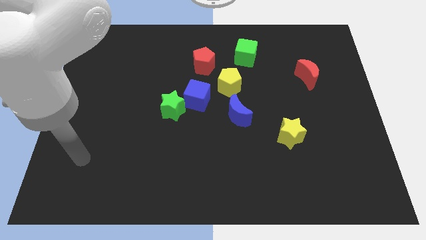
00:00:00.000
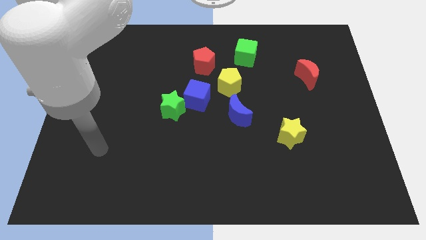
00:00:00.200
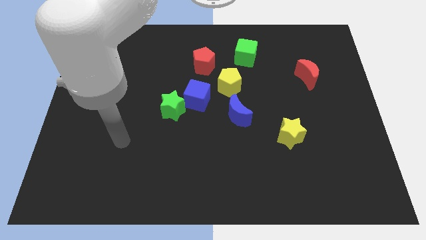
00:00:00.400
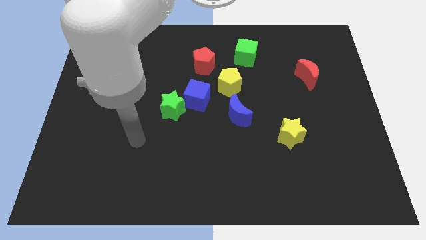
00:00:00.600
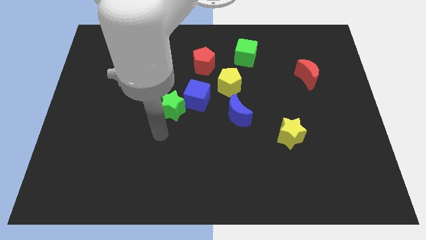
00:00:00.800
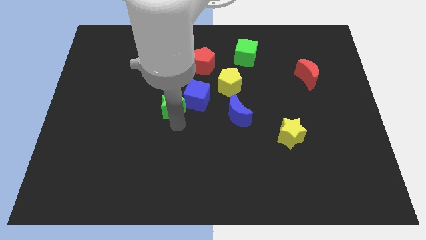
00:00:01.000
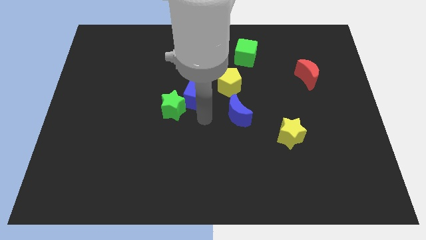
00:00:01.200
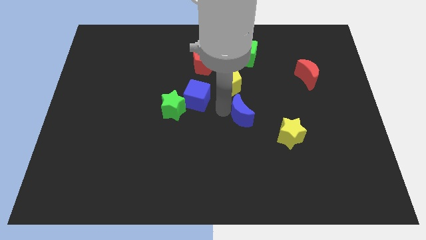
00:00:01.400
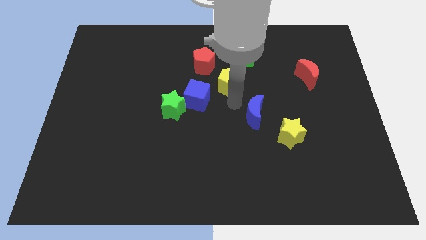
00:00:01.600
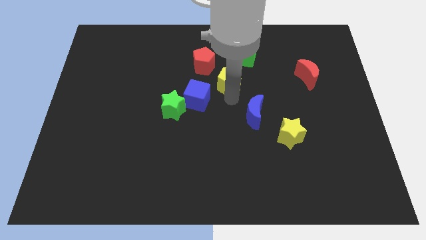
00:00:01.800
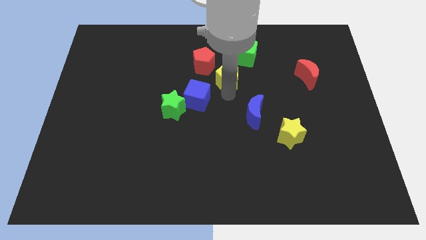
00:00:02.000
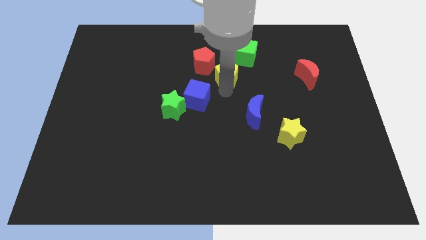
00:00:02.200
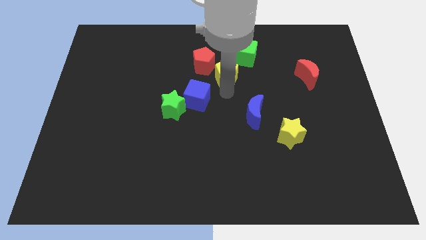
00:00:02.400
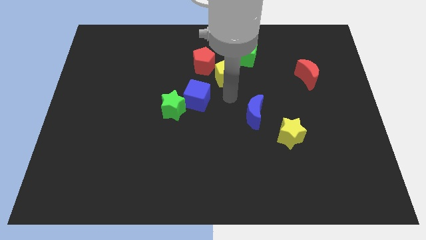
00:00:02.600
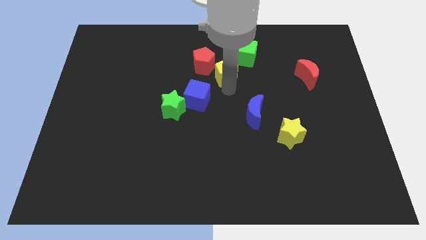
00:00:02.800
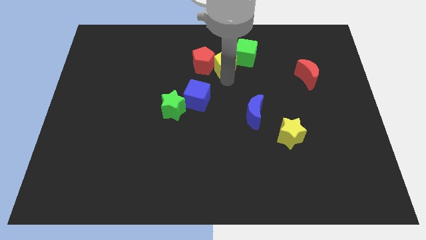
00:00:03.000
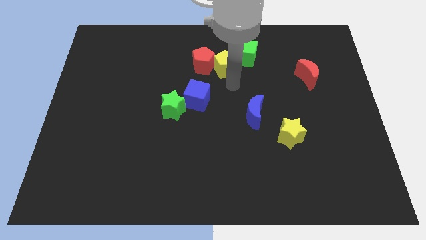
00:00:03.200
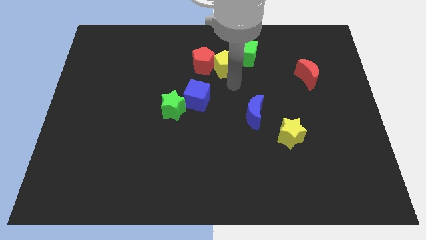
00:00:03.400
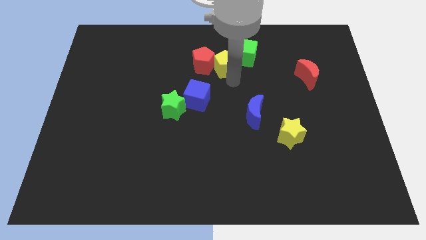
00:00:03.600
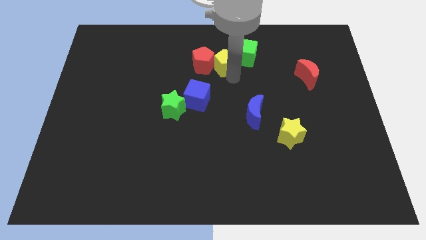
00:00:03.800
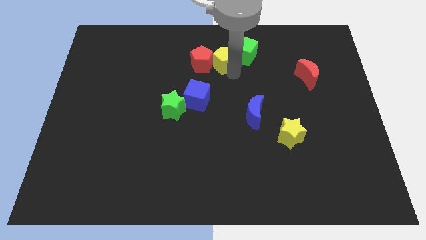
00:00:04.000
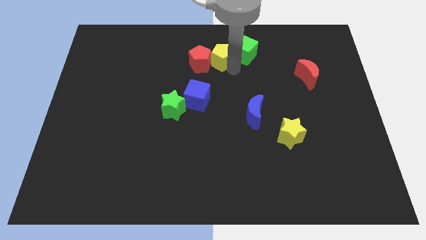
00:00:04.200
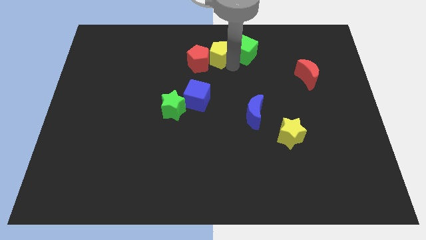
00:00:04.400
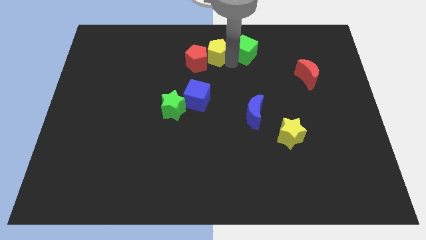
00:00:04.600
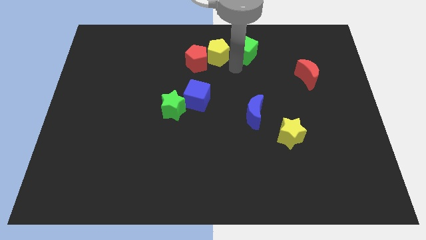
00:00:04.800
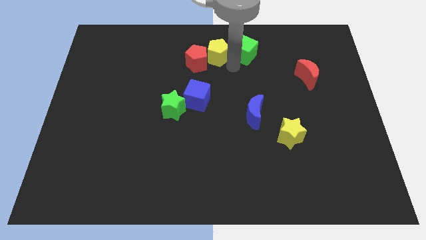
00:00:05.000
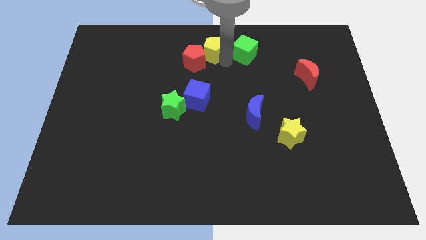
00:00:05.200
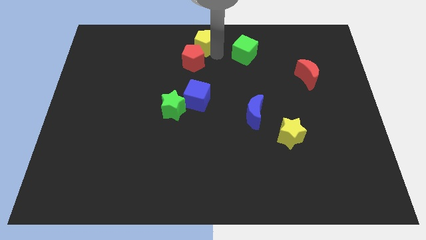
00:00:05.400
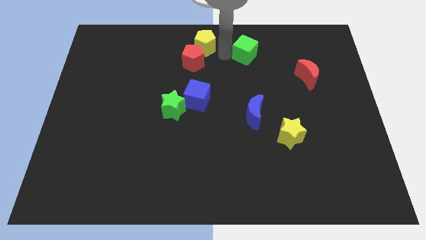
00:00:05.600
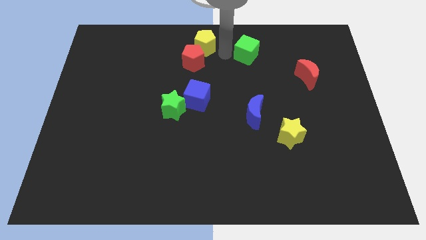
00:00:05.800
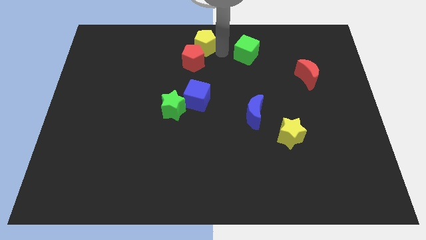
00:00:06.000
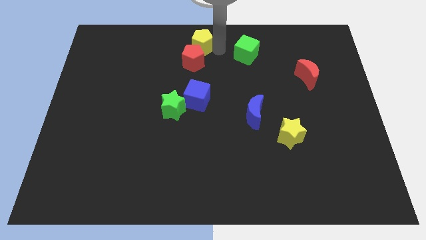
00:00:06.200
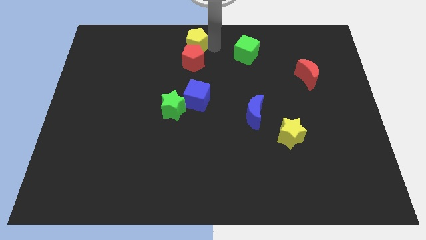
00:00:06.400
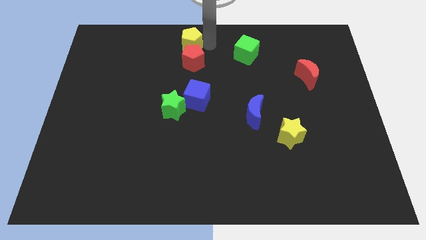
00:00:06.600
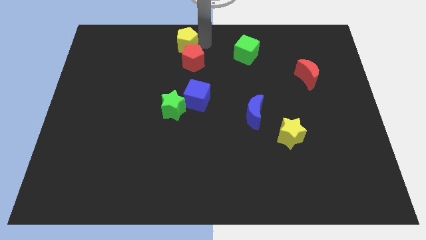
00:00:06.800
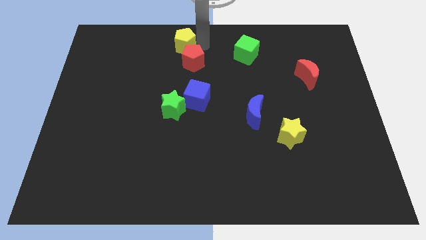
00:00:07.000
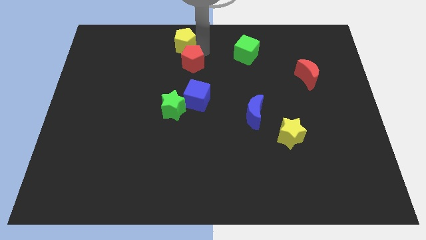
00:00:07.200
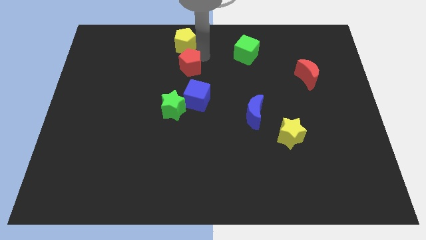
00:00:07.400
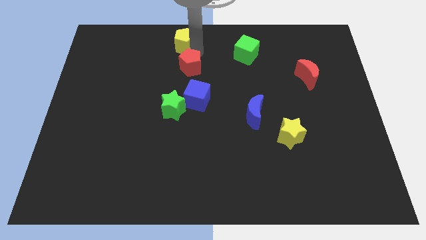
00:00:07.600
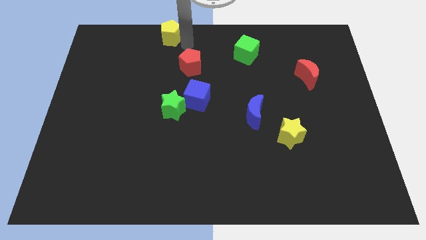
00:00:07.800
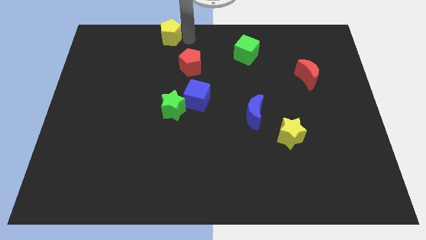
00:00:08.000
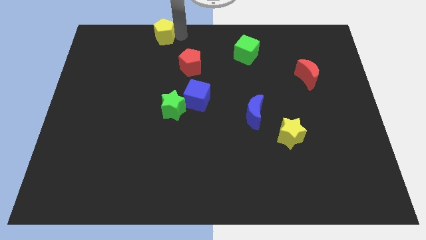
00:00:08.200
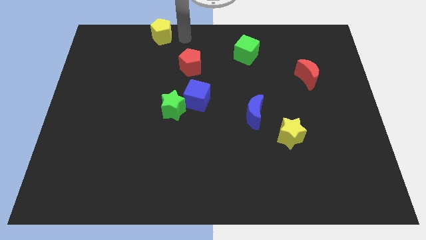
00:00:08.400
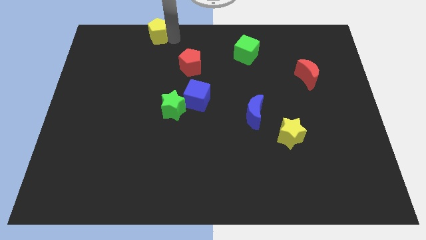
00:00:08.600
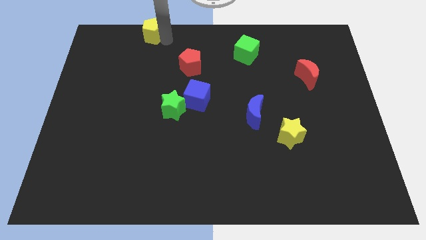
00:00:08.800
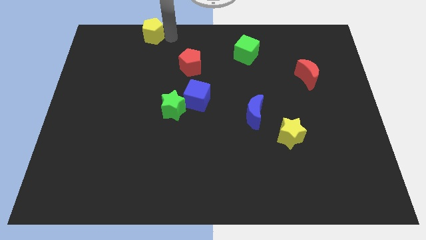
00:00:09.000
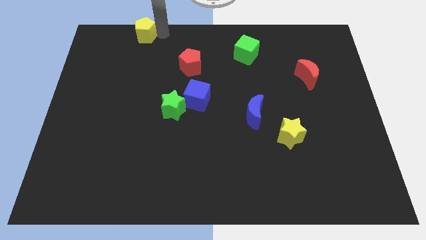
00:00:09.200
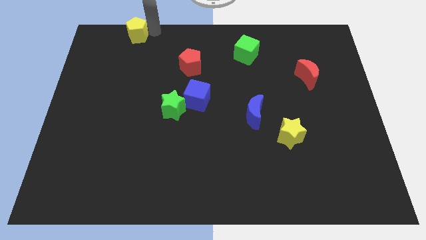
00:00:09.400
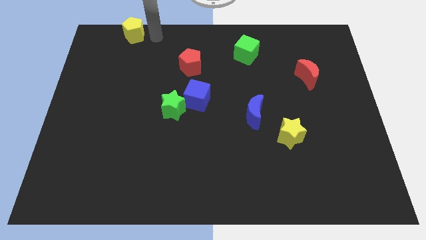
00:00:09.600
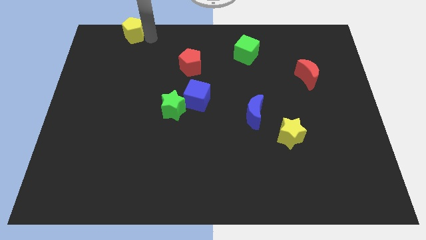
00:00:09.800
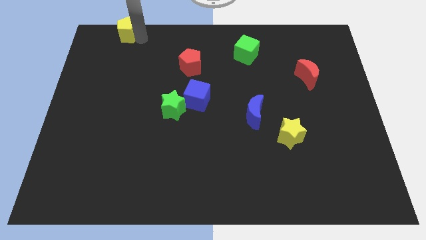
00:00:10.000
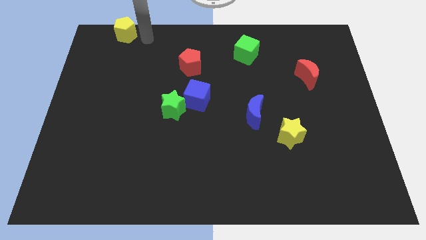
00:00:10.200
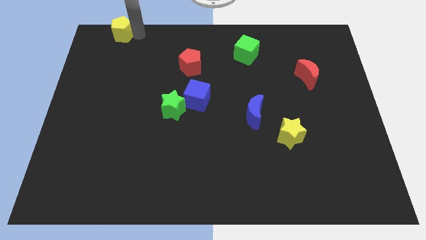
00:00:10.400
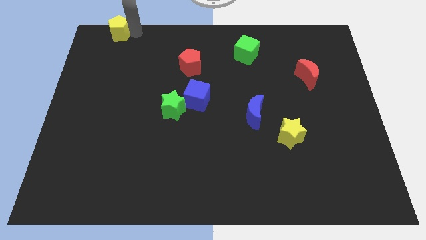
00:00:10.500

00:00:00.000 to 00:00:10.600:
move the yellow pentagon to the upper left corner

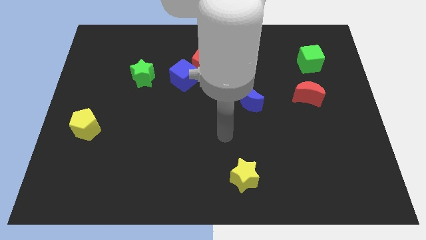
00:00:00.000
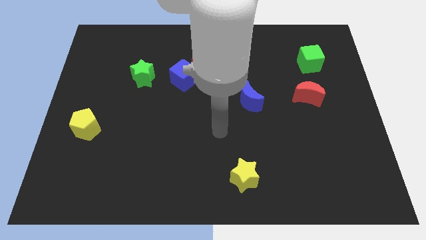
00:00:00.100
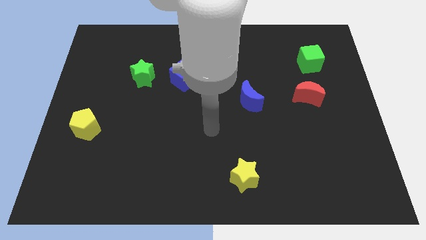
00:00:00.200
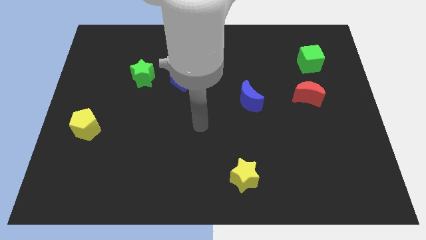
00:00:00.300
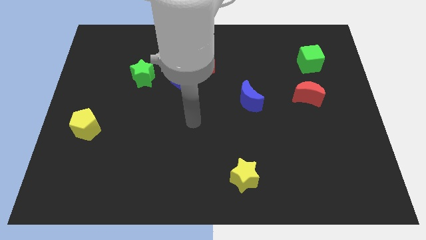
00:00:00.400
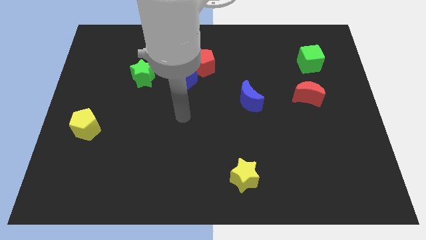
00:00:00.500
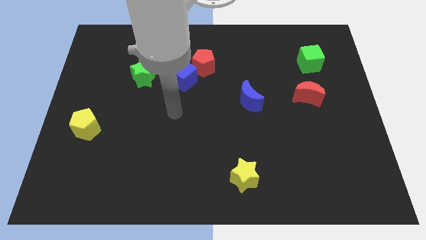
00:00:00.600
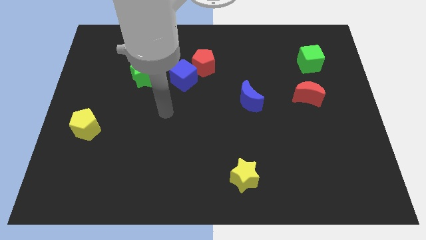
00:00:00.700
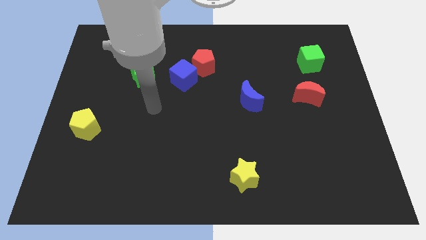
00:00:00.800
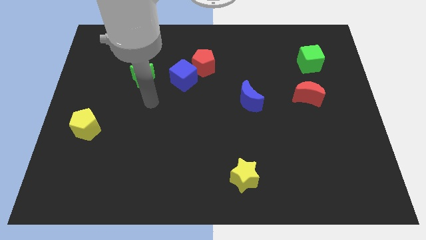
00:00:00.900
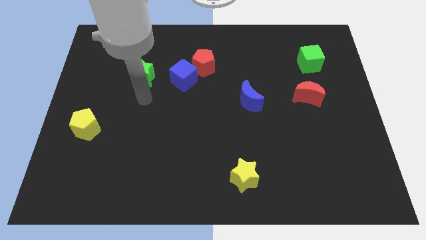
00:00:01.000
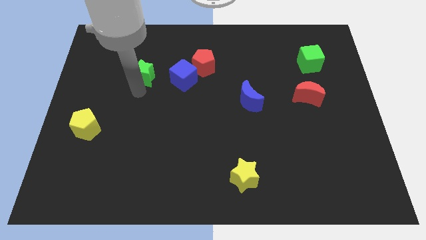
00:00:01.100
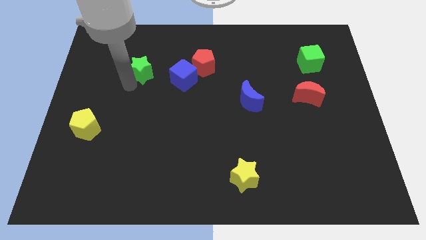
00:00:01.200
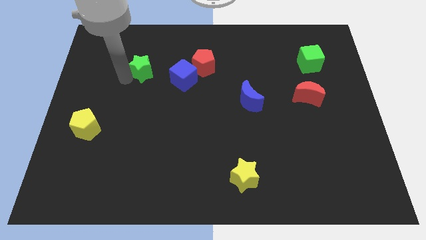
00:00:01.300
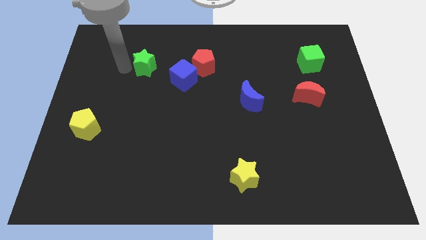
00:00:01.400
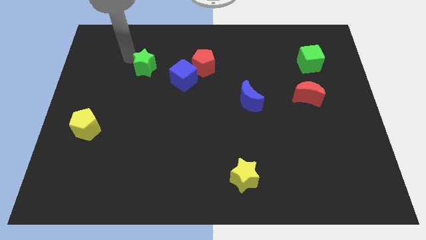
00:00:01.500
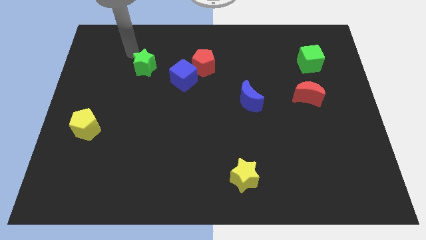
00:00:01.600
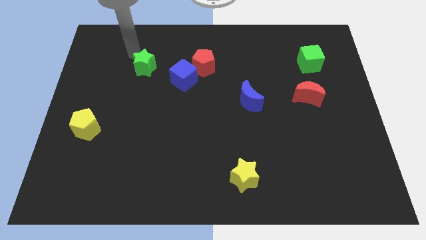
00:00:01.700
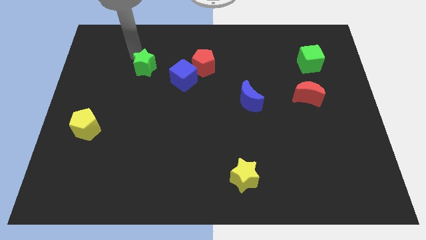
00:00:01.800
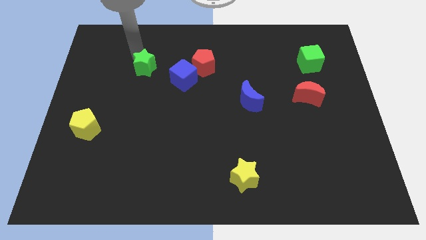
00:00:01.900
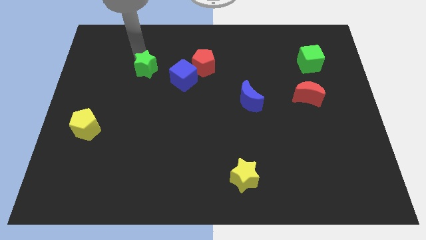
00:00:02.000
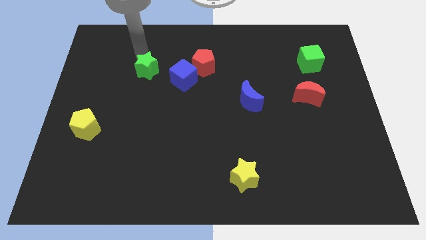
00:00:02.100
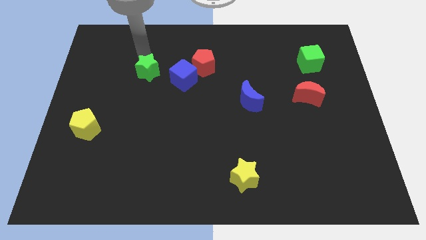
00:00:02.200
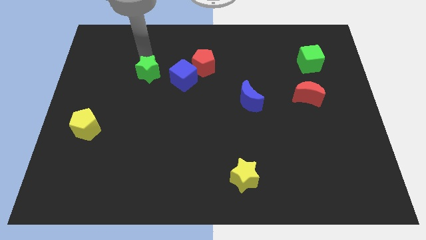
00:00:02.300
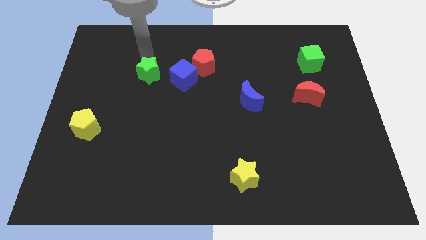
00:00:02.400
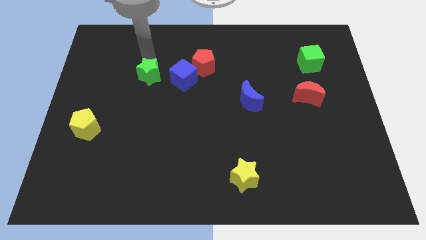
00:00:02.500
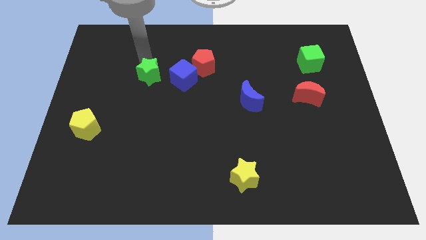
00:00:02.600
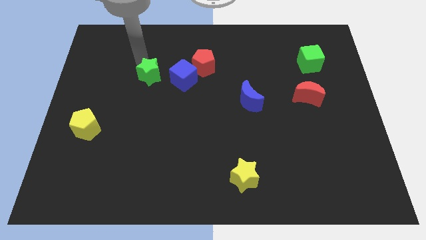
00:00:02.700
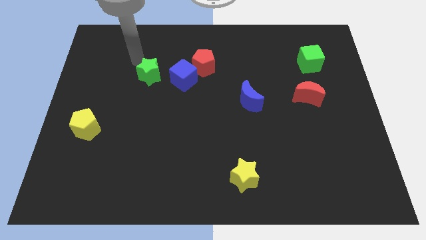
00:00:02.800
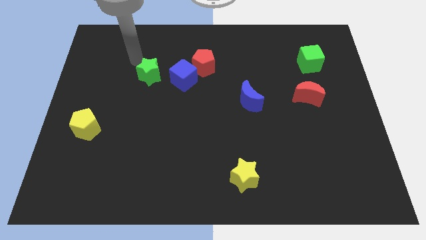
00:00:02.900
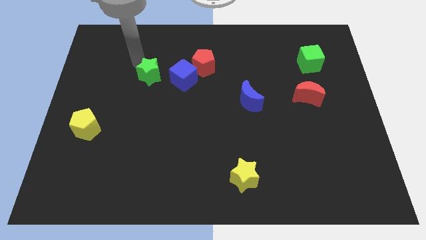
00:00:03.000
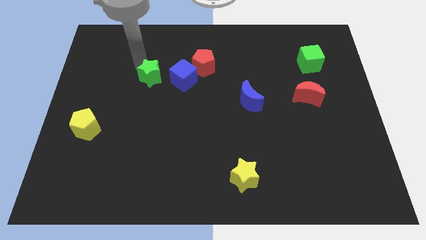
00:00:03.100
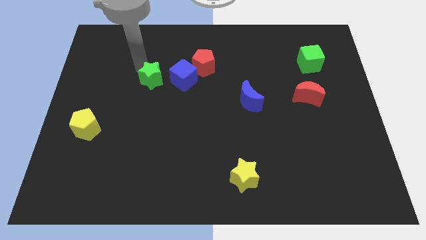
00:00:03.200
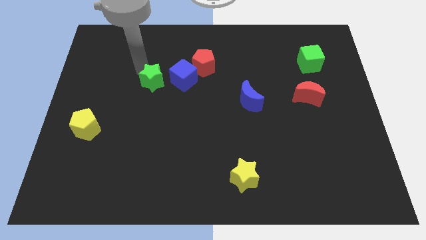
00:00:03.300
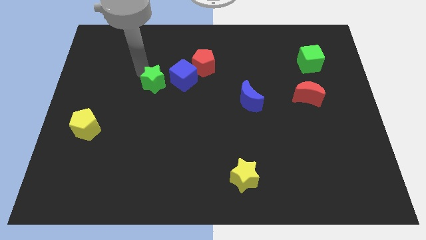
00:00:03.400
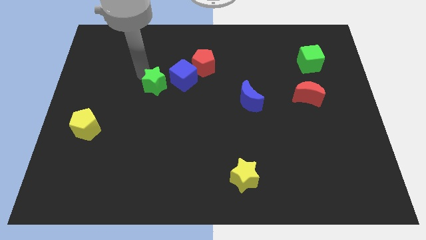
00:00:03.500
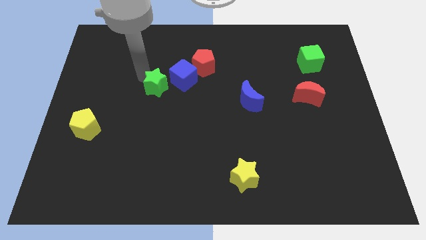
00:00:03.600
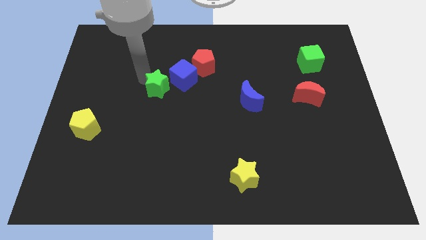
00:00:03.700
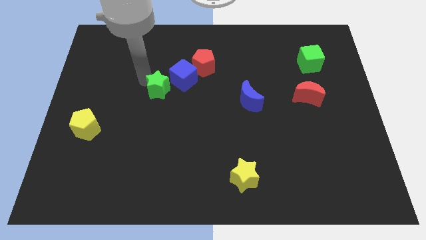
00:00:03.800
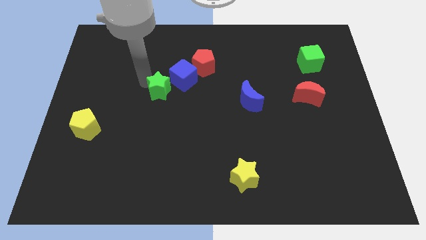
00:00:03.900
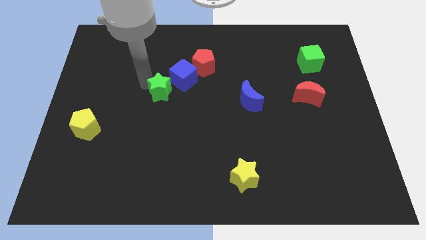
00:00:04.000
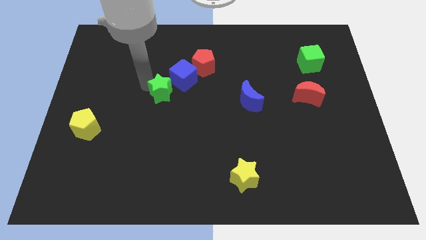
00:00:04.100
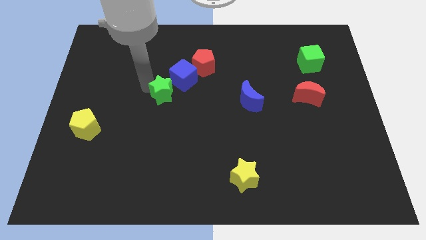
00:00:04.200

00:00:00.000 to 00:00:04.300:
move the green star to the middle
